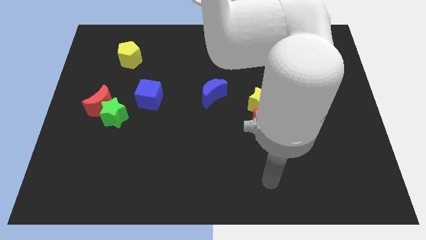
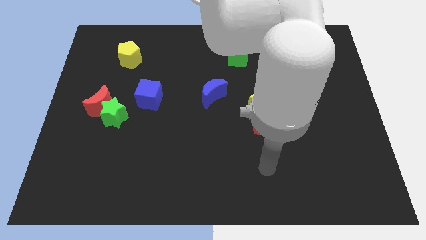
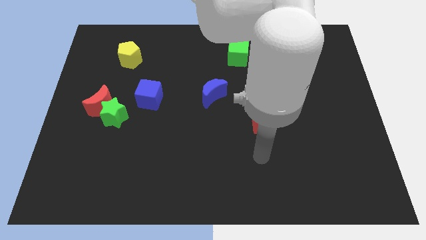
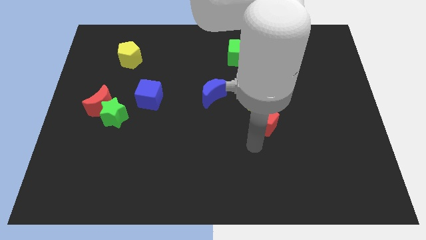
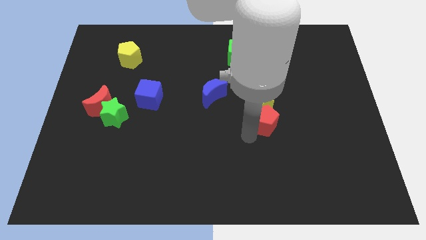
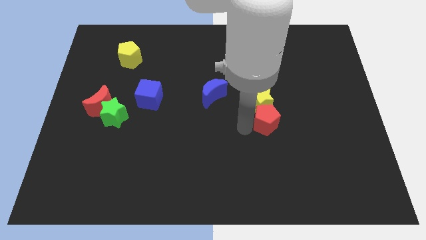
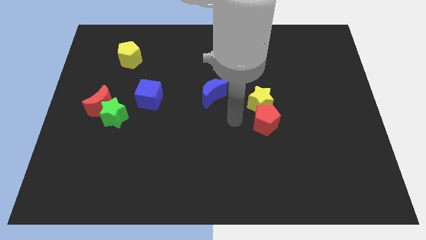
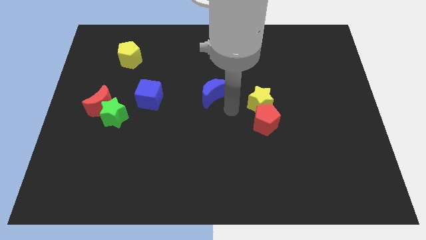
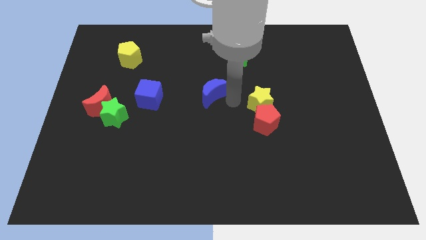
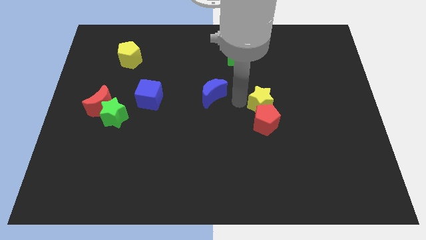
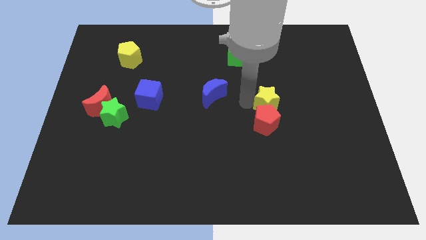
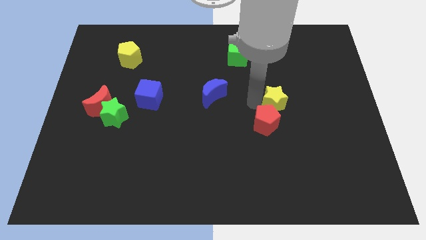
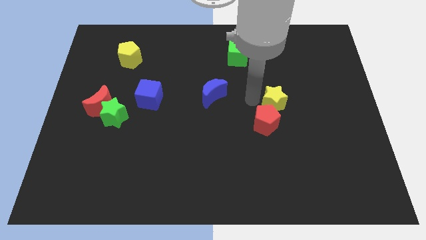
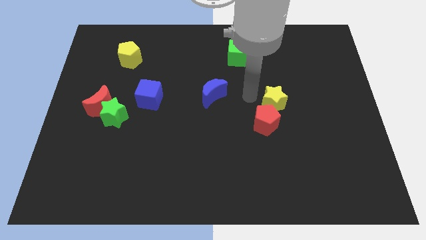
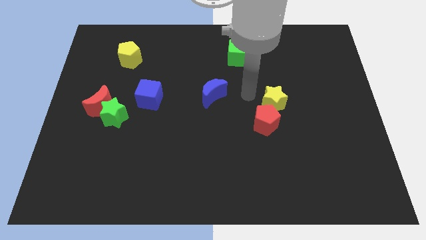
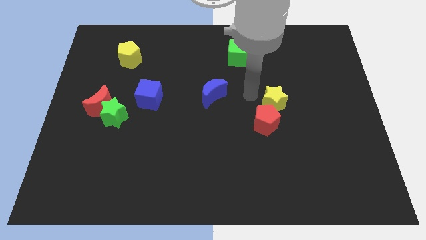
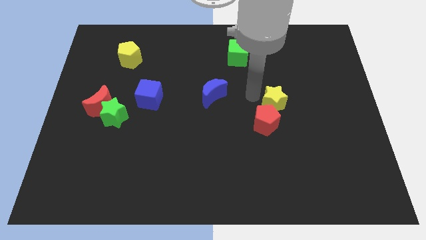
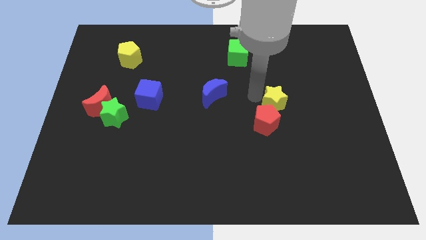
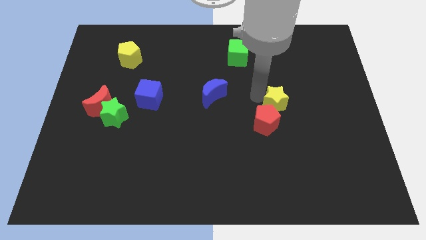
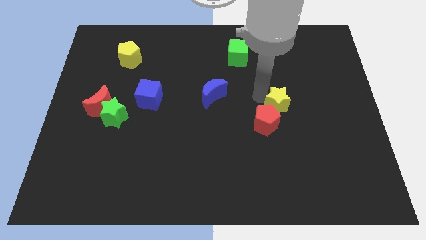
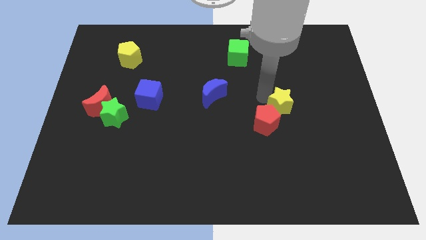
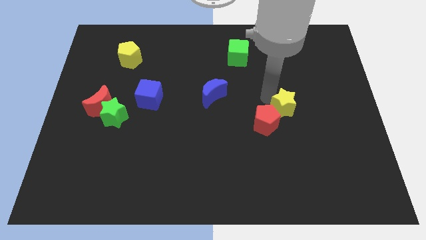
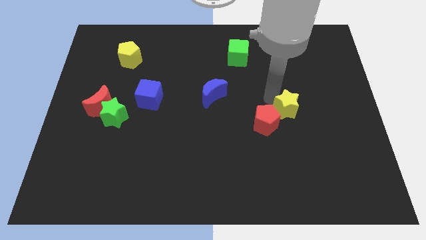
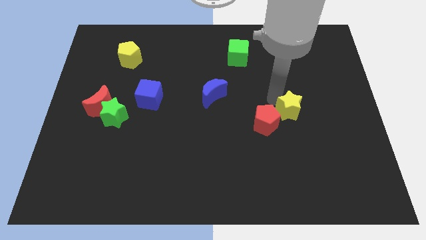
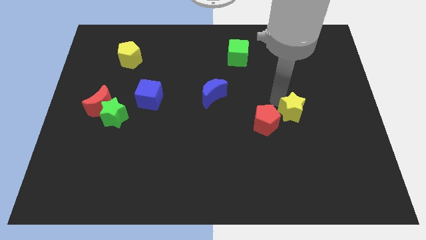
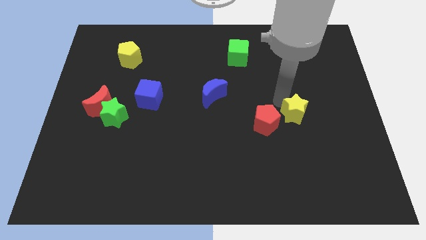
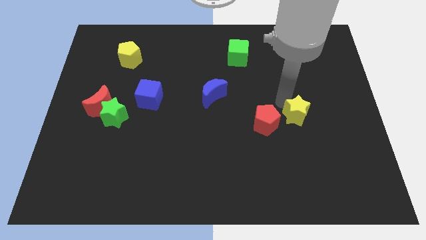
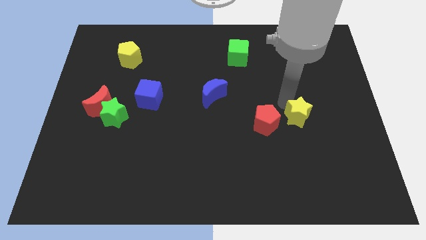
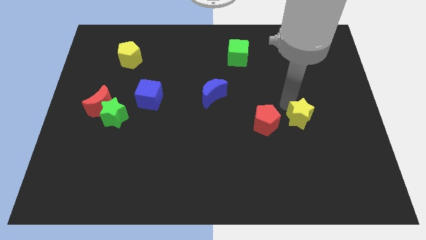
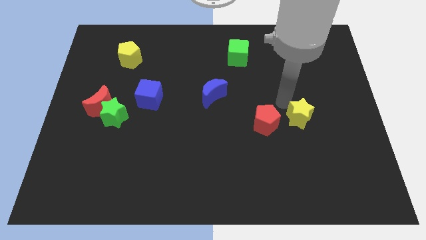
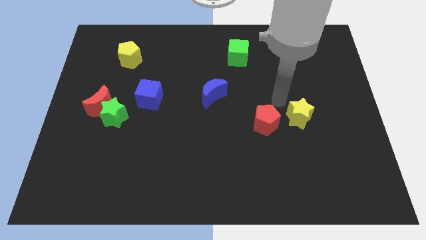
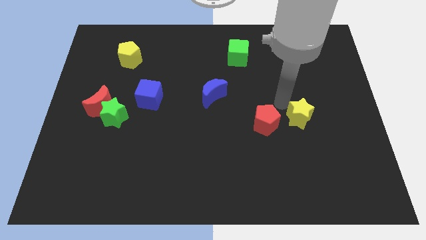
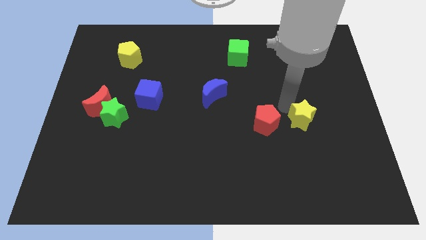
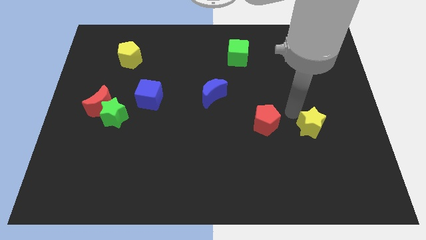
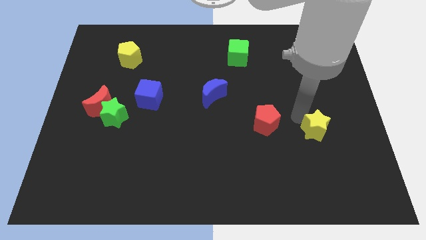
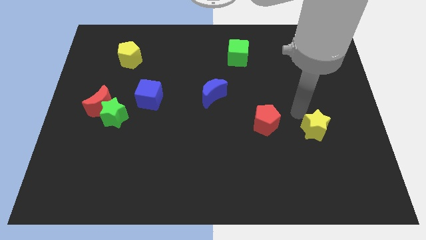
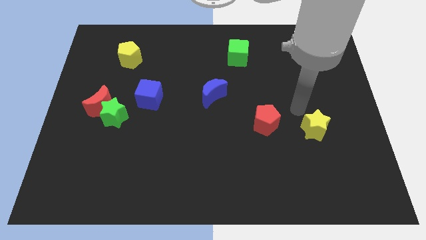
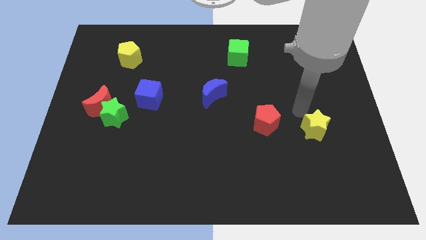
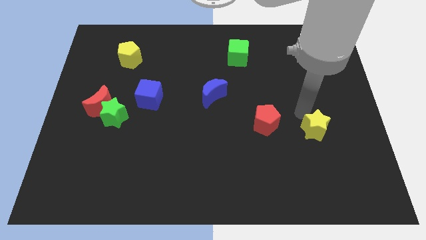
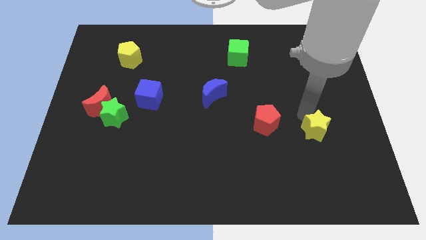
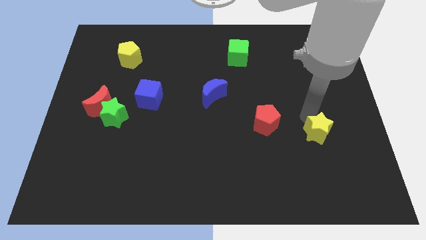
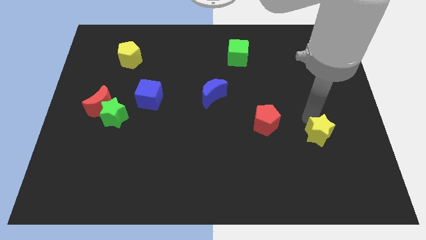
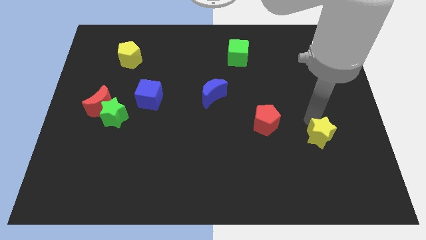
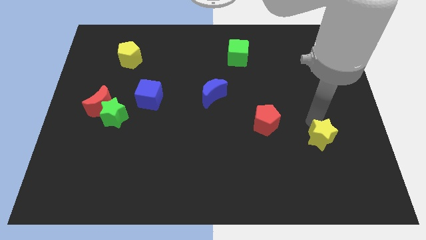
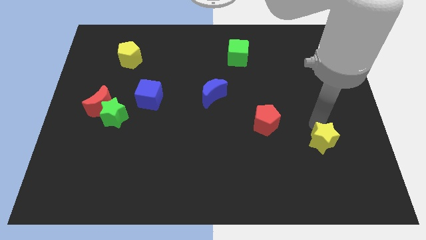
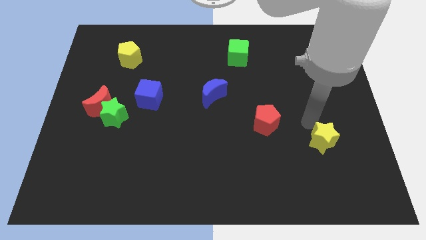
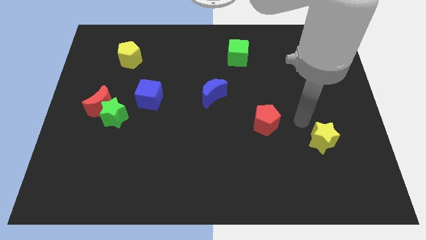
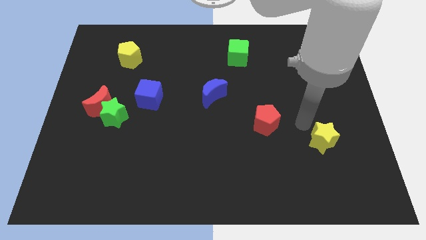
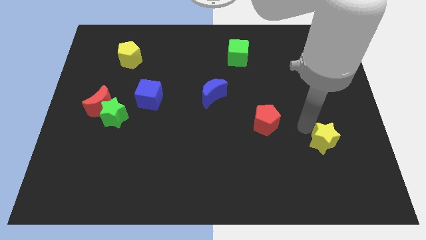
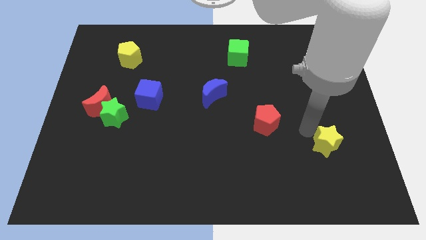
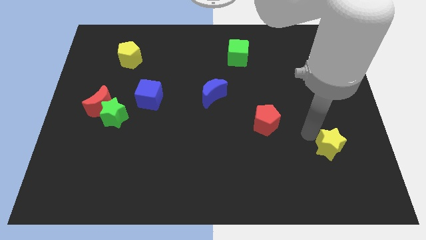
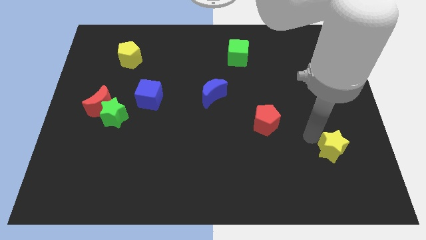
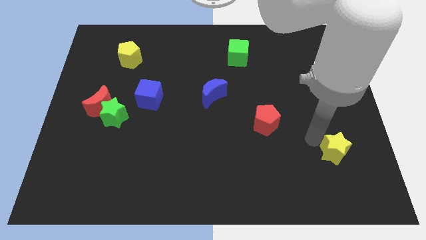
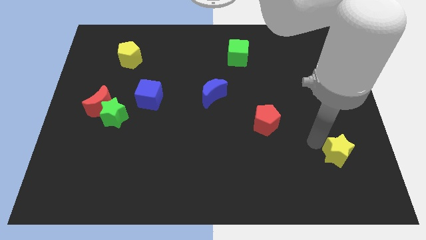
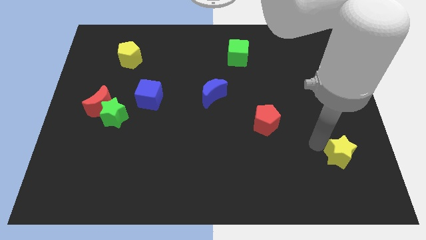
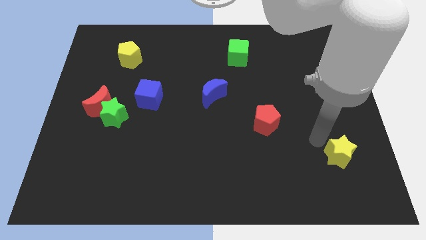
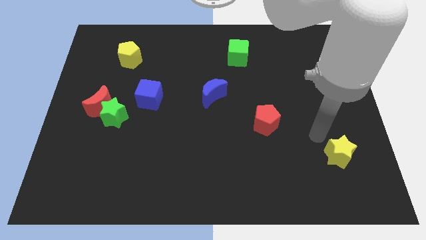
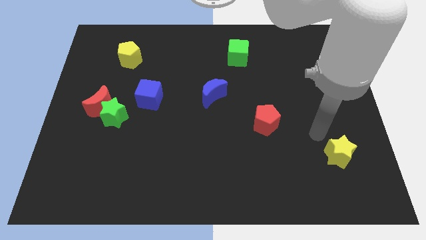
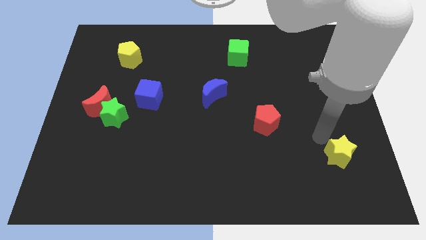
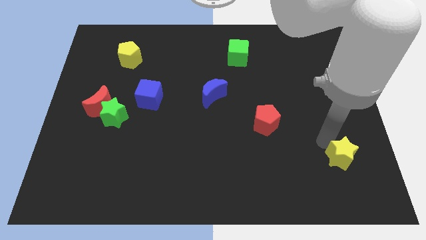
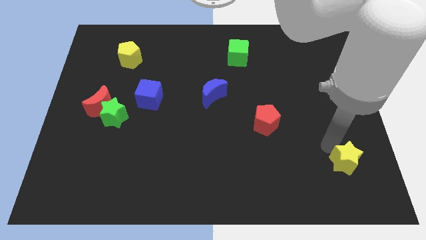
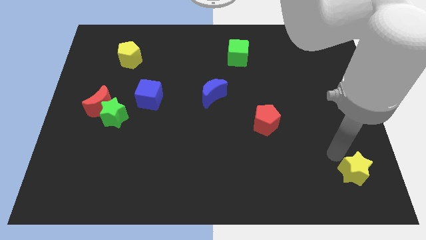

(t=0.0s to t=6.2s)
move the yellow star to the bottom right

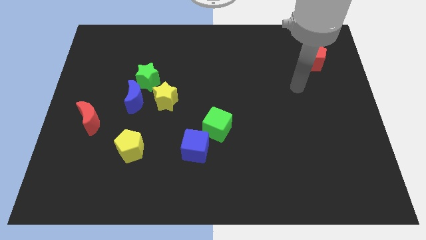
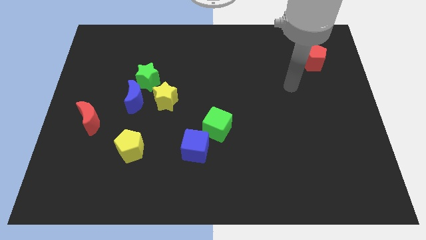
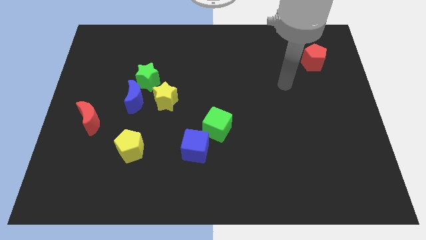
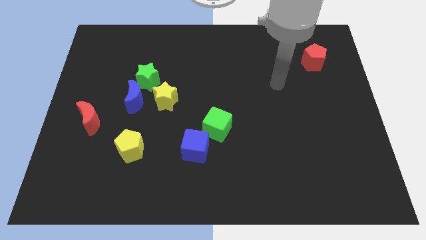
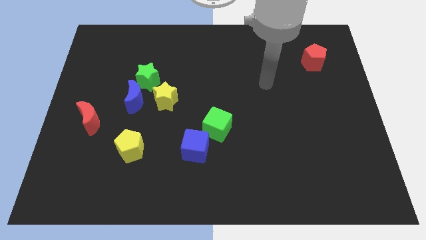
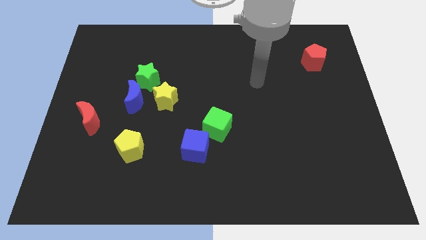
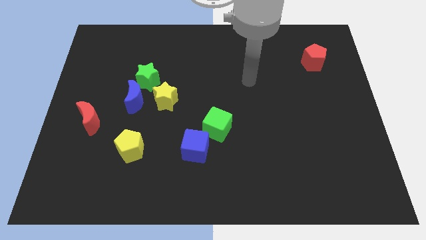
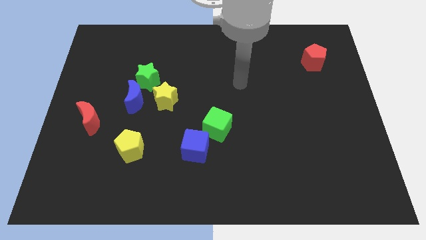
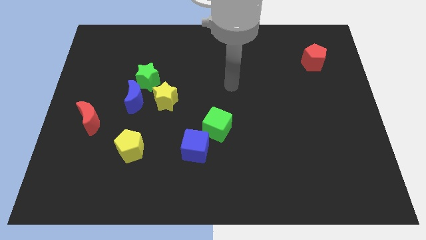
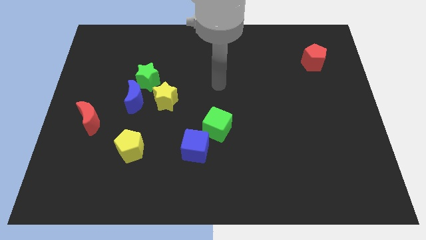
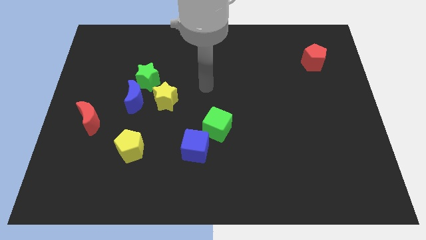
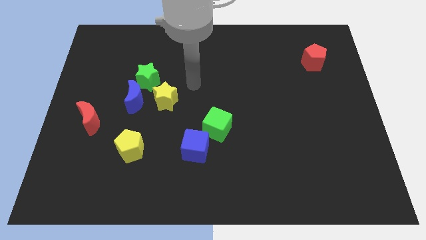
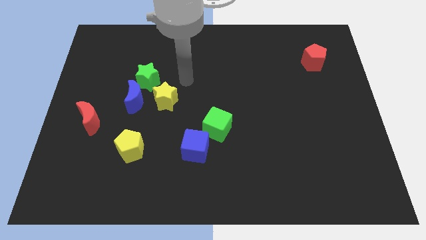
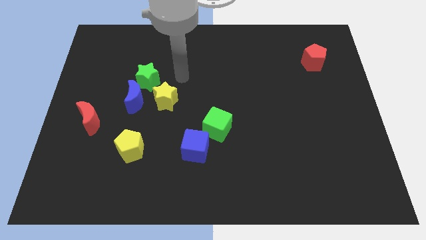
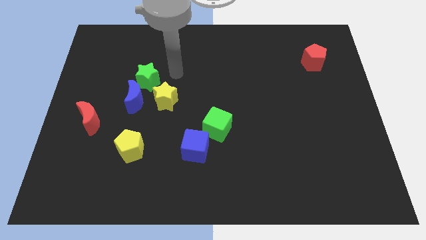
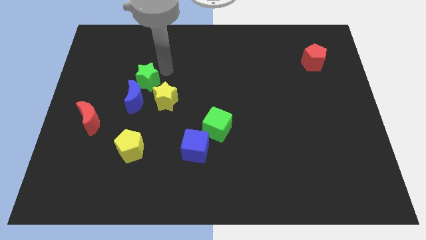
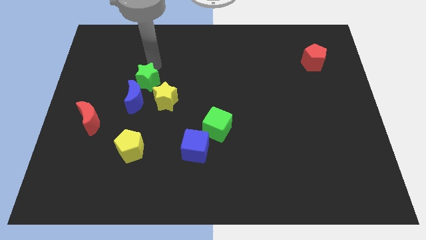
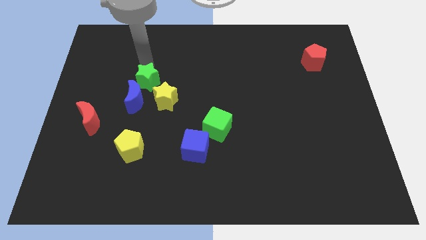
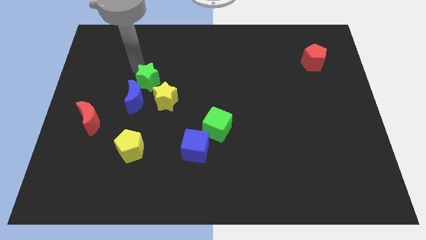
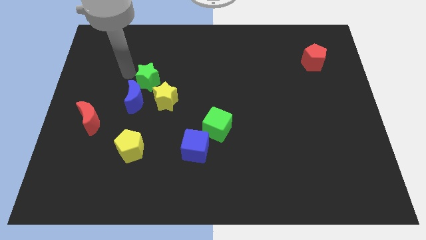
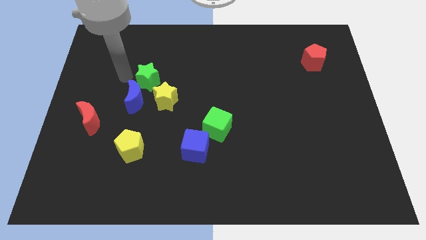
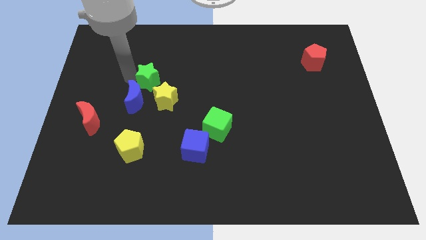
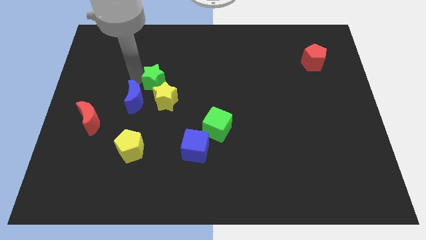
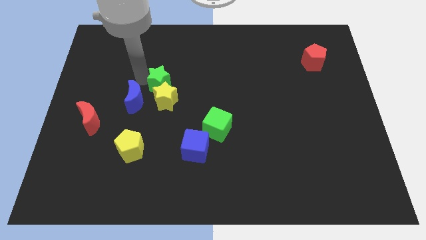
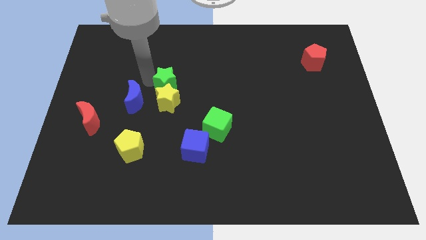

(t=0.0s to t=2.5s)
push the green star to the middle of the board
